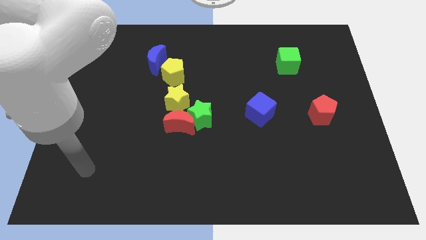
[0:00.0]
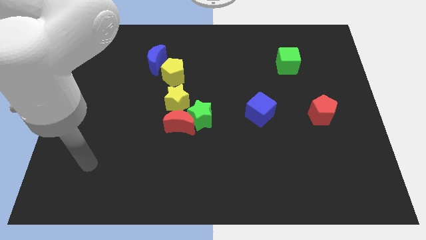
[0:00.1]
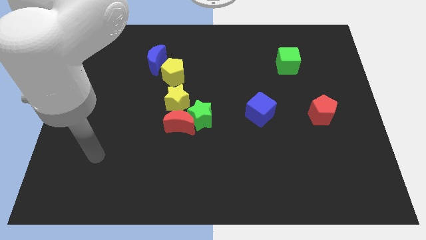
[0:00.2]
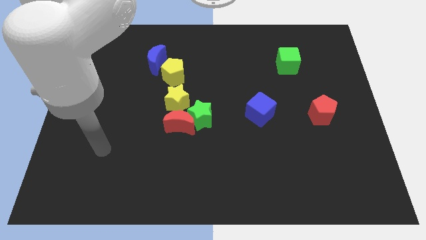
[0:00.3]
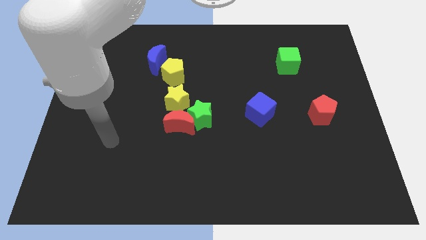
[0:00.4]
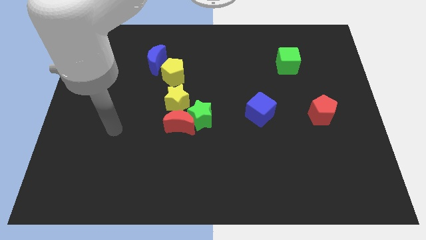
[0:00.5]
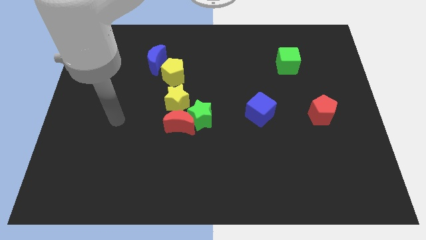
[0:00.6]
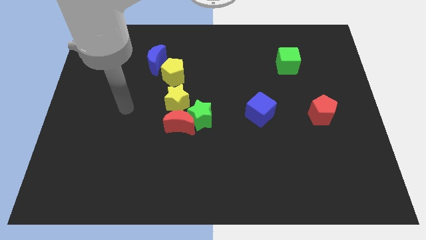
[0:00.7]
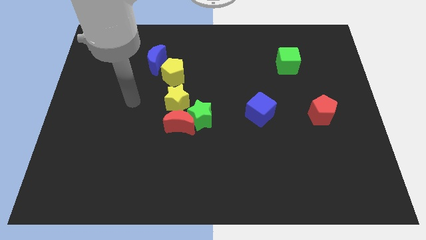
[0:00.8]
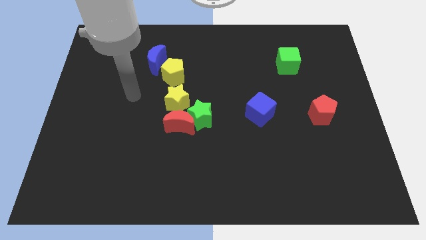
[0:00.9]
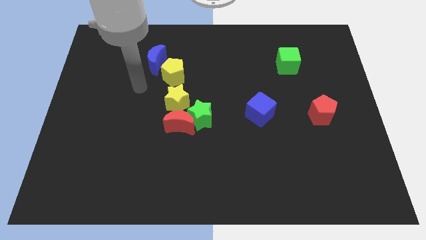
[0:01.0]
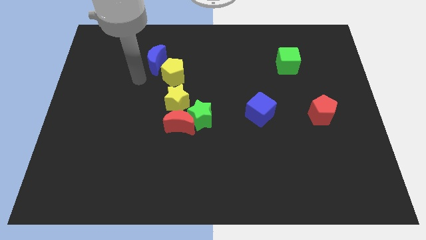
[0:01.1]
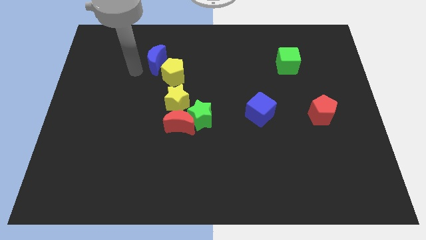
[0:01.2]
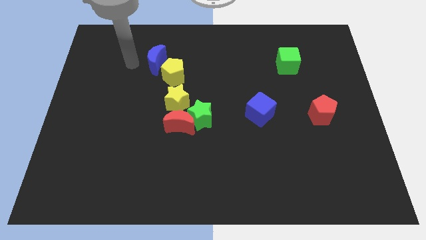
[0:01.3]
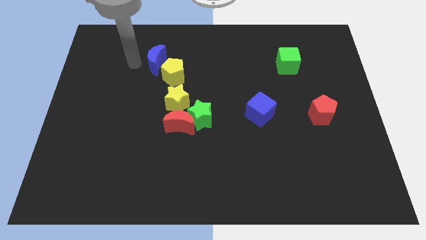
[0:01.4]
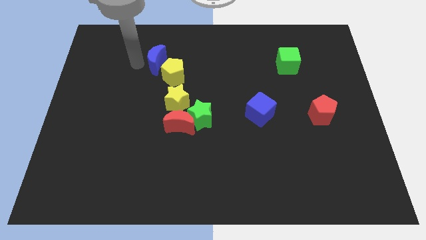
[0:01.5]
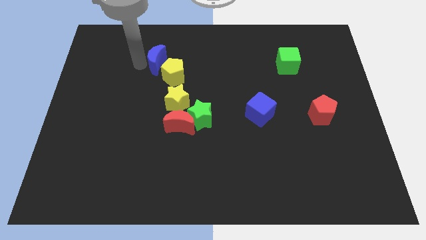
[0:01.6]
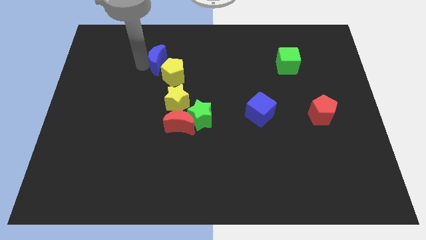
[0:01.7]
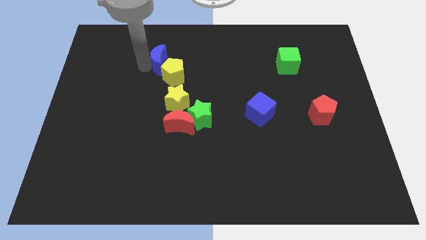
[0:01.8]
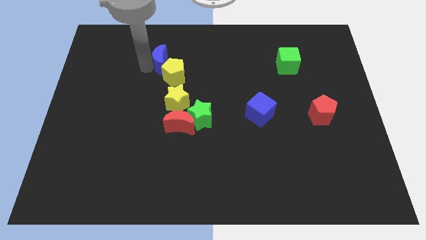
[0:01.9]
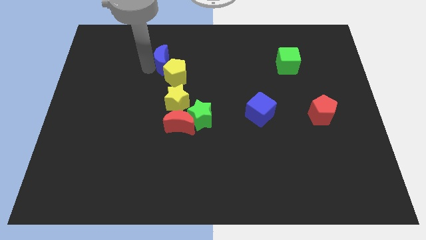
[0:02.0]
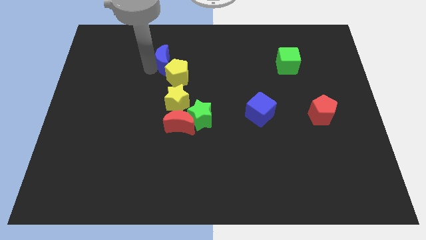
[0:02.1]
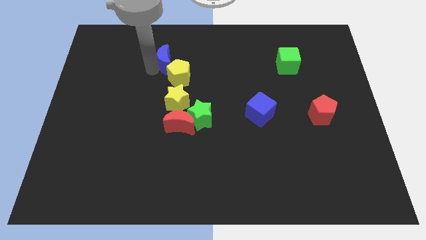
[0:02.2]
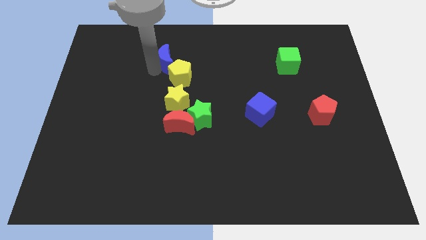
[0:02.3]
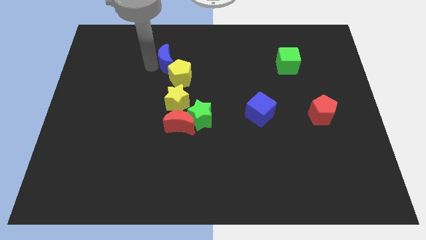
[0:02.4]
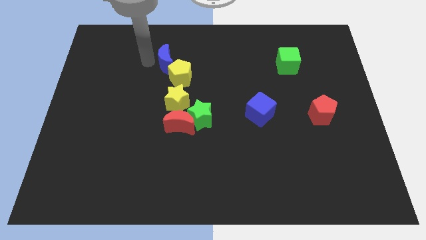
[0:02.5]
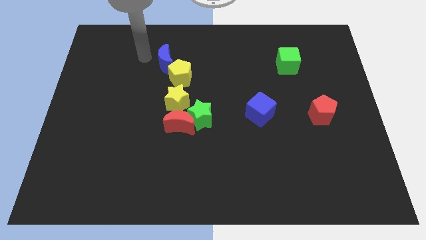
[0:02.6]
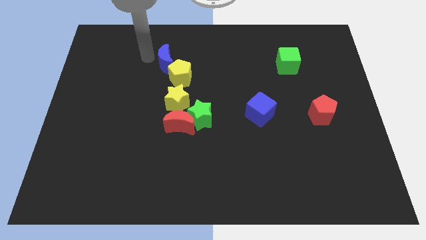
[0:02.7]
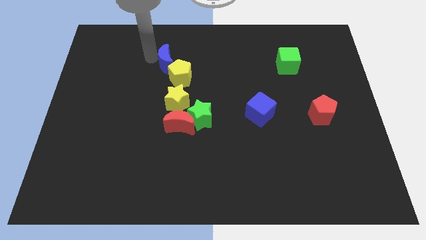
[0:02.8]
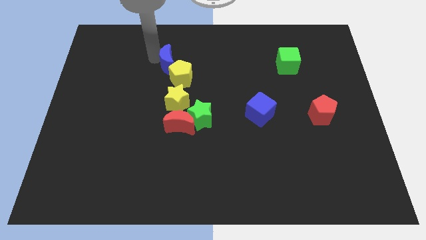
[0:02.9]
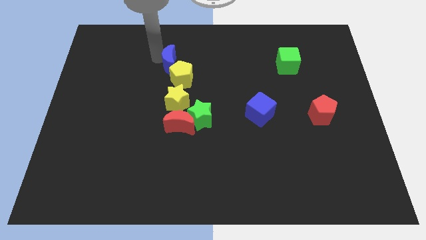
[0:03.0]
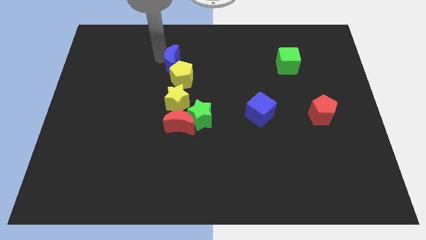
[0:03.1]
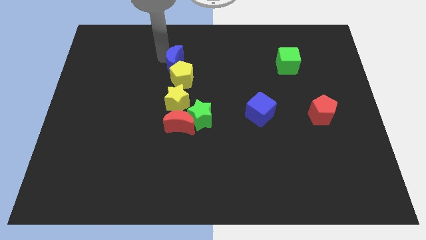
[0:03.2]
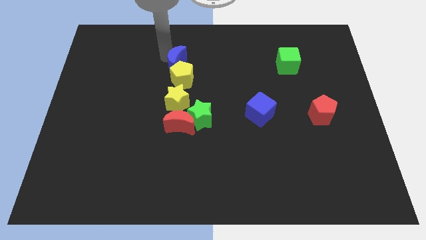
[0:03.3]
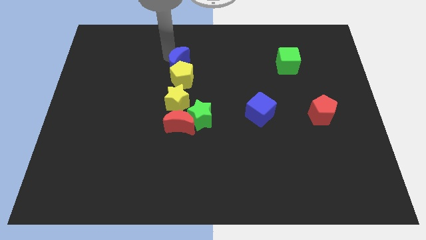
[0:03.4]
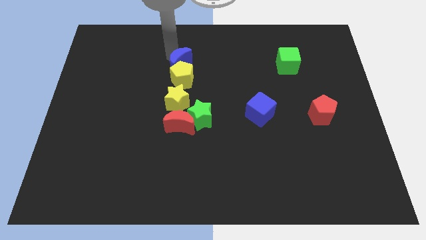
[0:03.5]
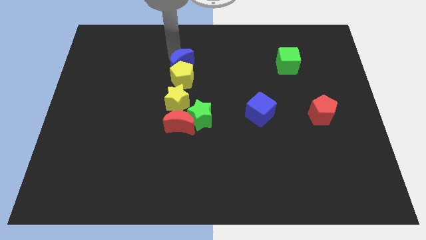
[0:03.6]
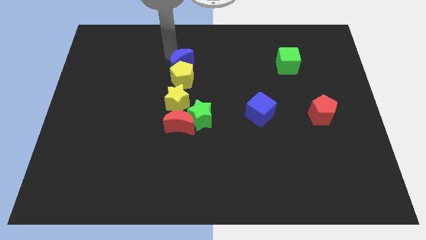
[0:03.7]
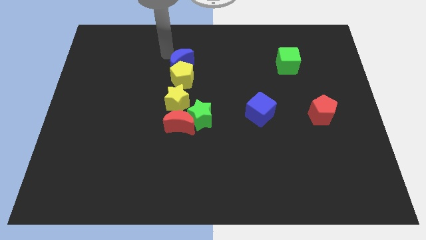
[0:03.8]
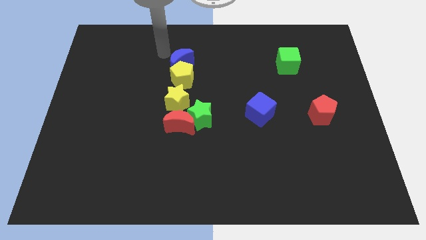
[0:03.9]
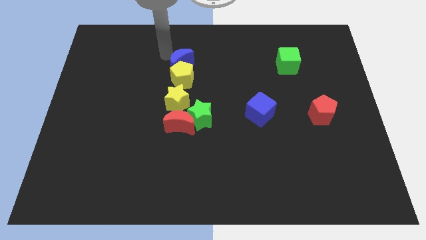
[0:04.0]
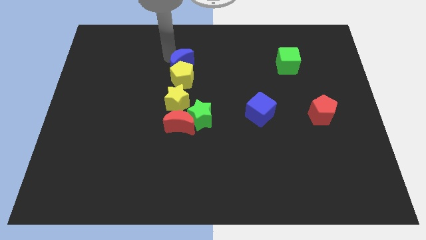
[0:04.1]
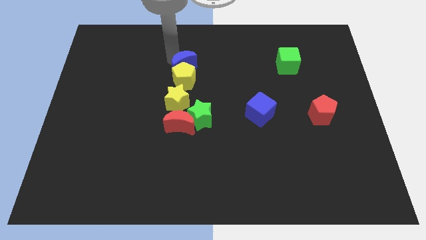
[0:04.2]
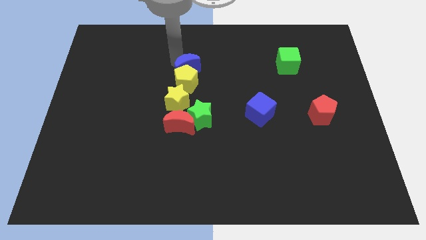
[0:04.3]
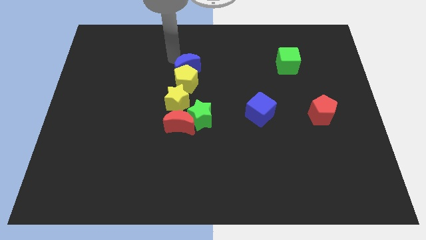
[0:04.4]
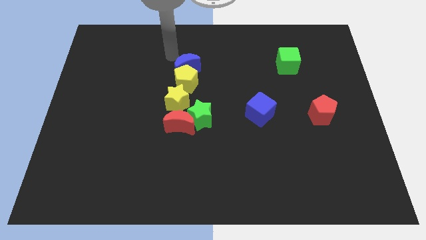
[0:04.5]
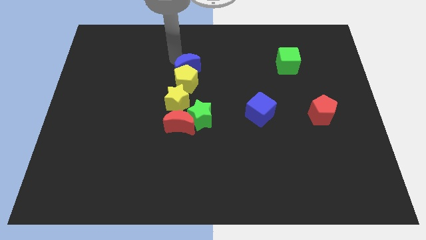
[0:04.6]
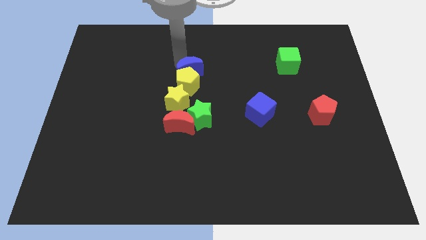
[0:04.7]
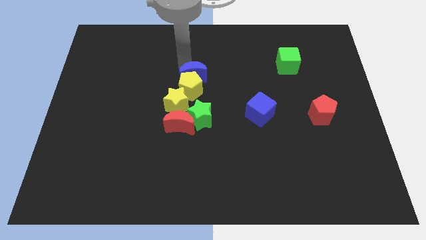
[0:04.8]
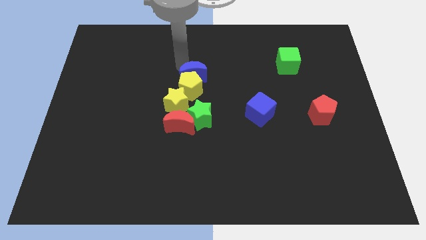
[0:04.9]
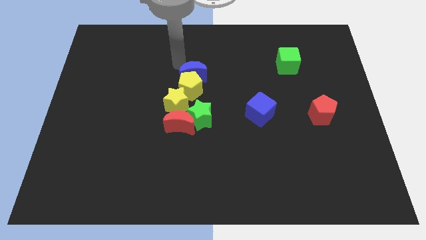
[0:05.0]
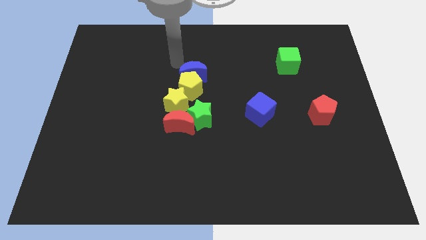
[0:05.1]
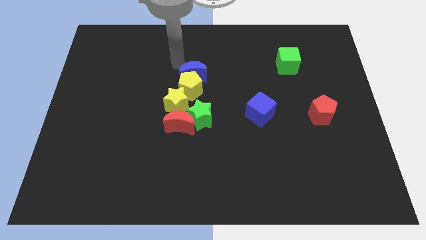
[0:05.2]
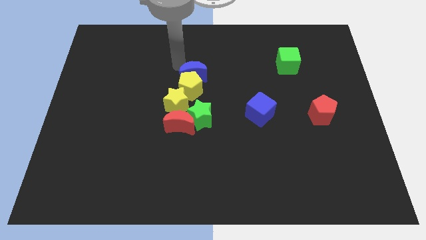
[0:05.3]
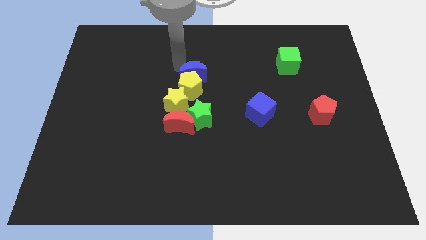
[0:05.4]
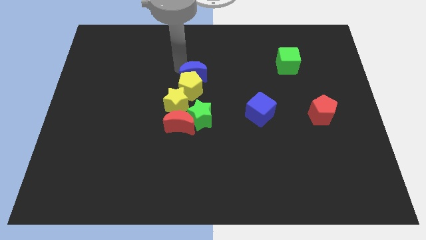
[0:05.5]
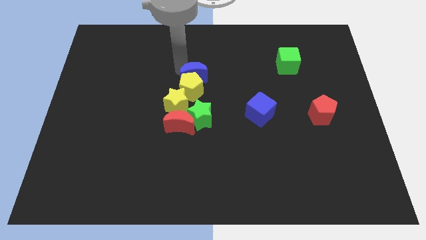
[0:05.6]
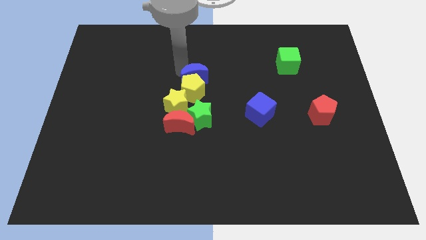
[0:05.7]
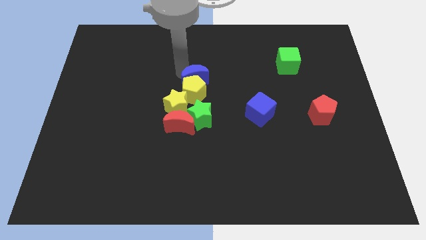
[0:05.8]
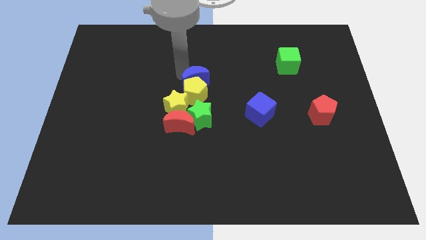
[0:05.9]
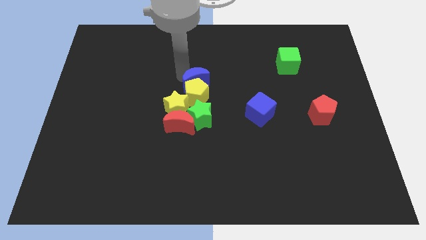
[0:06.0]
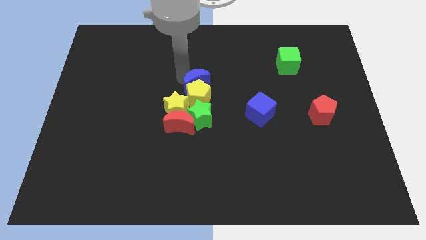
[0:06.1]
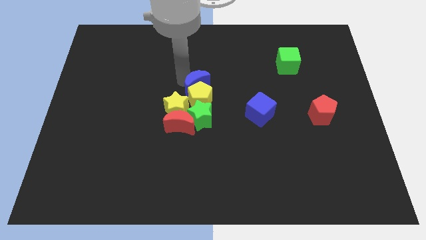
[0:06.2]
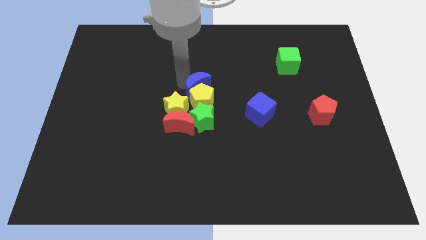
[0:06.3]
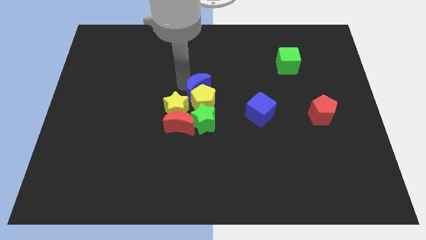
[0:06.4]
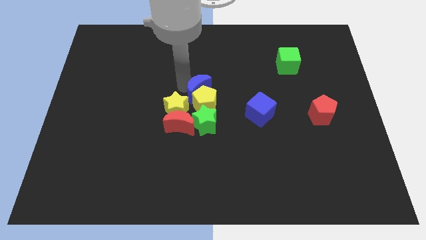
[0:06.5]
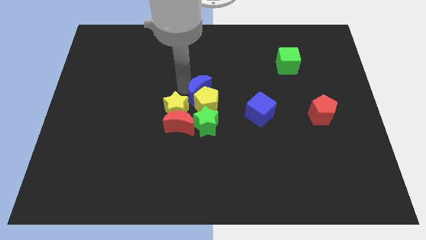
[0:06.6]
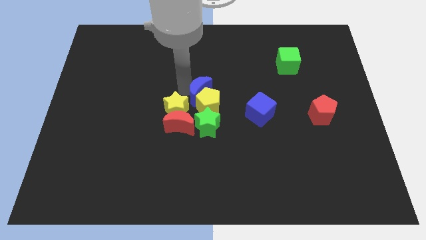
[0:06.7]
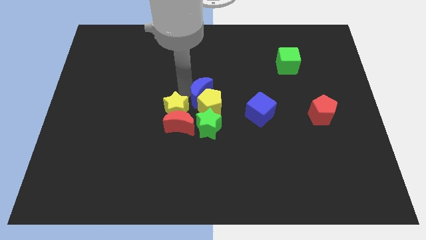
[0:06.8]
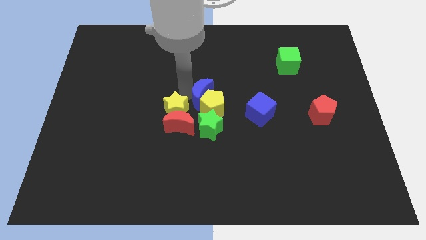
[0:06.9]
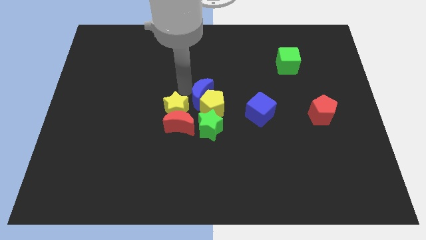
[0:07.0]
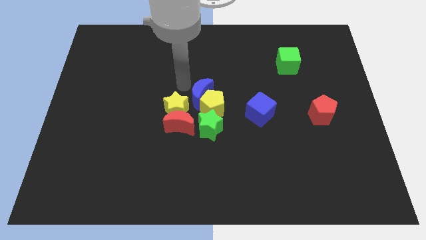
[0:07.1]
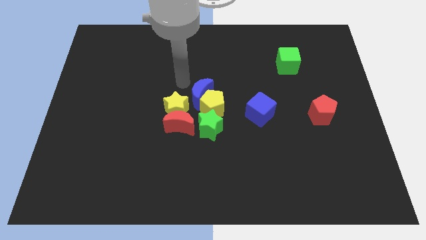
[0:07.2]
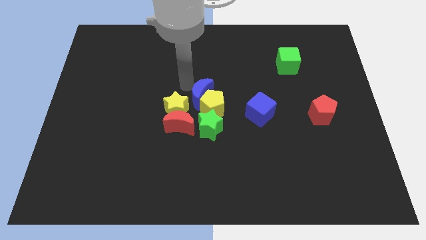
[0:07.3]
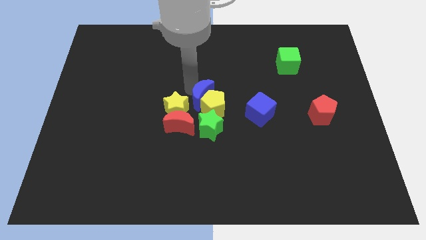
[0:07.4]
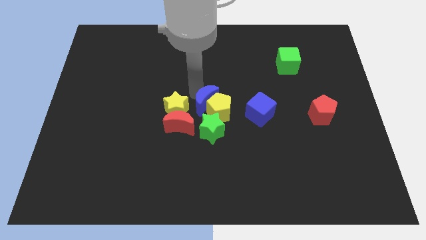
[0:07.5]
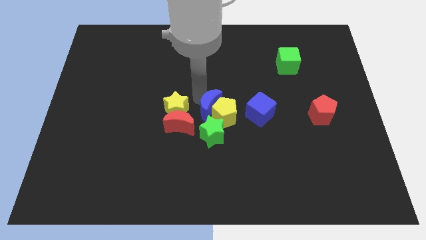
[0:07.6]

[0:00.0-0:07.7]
slide the blue moon downwards and to the right diagonally

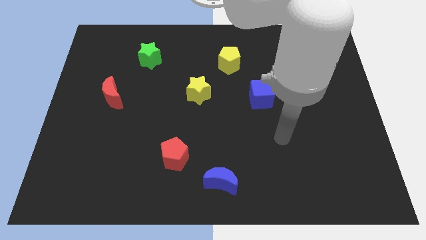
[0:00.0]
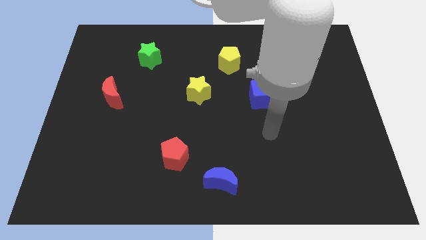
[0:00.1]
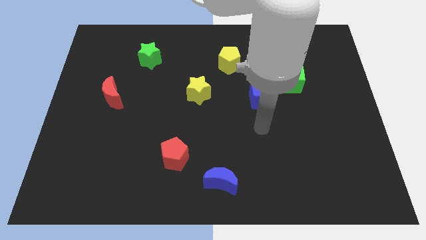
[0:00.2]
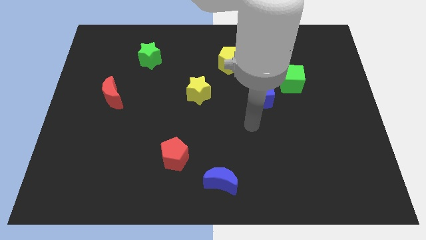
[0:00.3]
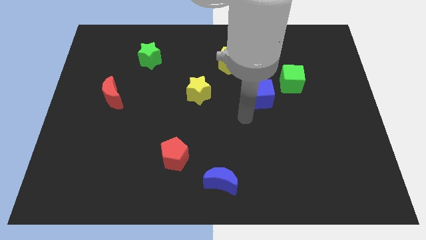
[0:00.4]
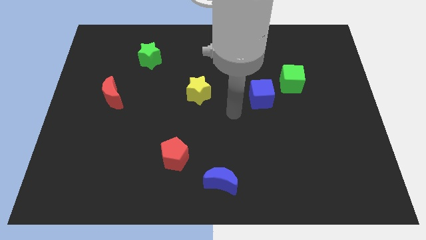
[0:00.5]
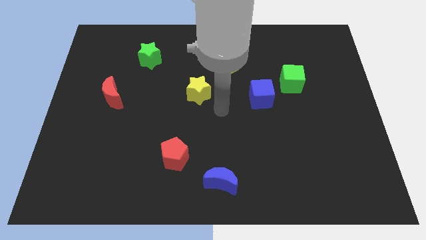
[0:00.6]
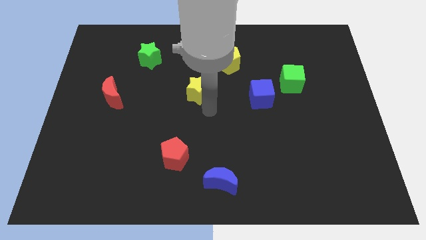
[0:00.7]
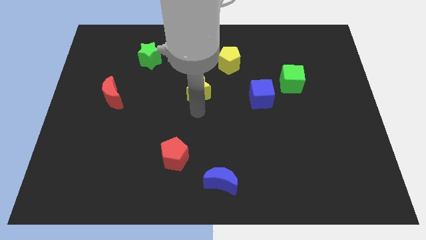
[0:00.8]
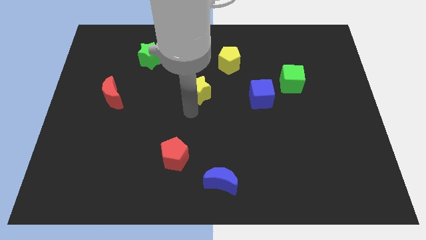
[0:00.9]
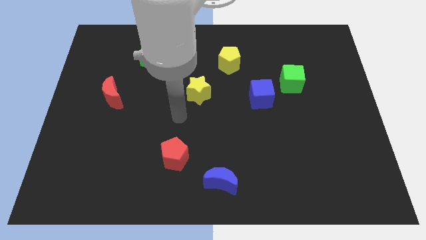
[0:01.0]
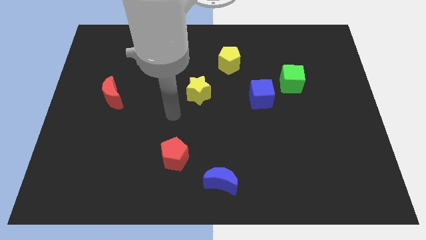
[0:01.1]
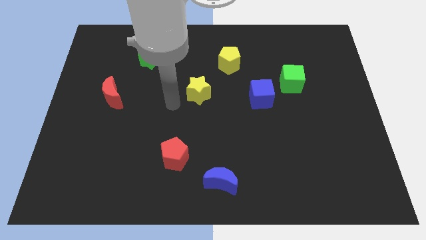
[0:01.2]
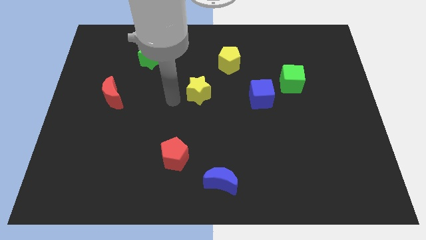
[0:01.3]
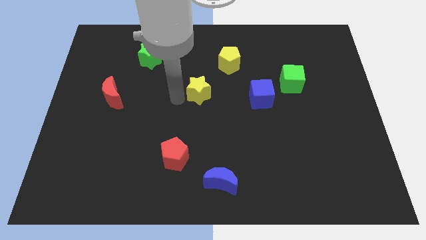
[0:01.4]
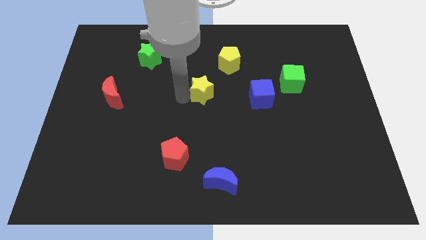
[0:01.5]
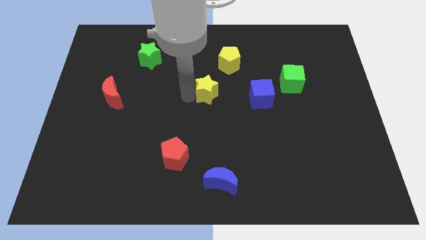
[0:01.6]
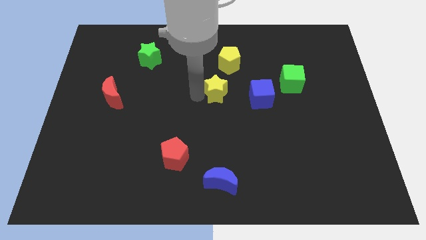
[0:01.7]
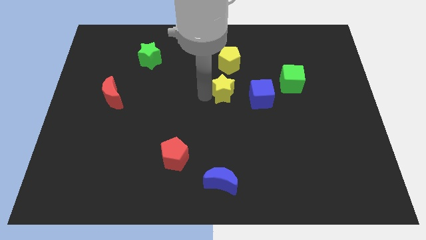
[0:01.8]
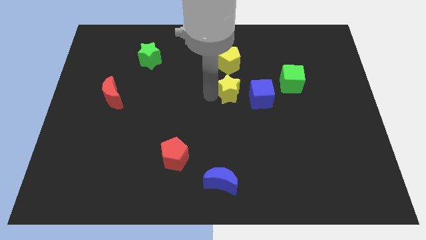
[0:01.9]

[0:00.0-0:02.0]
move the yellow star a little to the right
